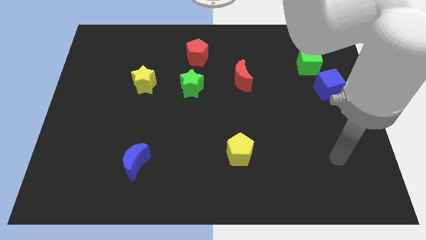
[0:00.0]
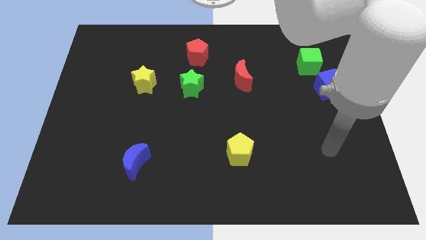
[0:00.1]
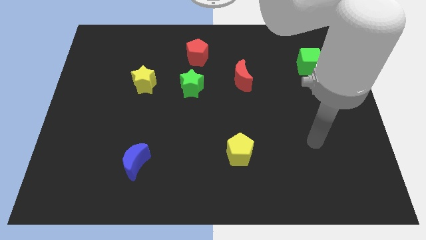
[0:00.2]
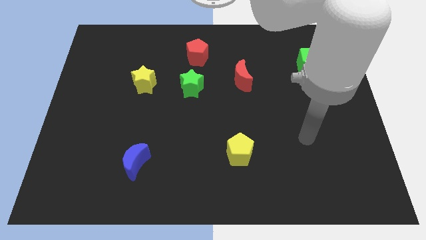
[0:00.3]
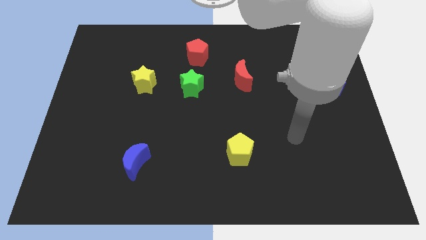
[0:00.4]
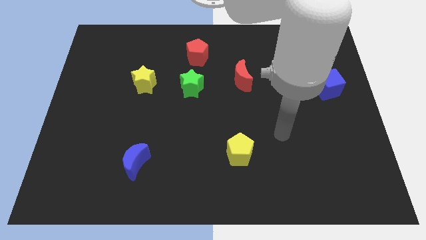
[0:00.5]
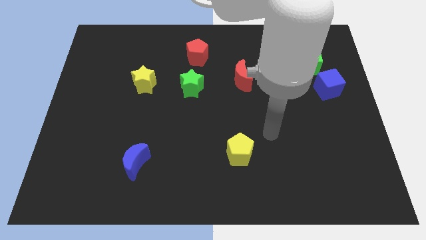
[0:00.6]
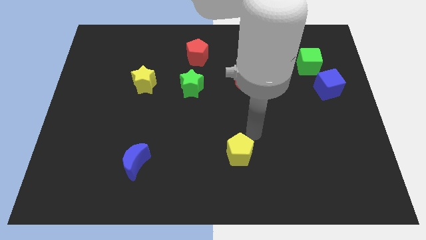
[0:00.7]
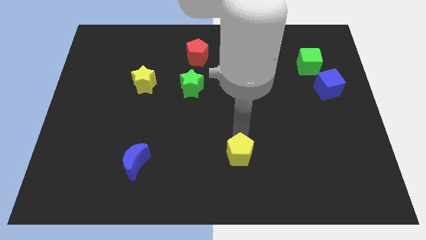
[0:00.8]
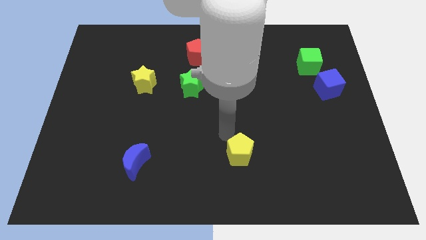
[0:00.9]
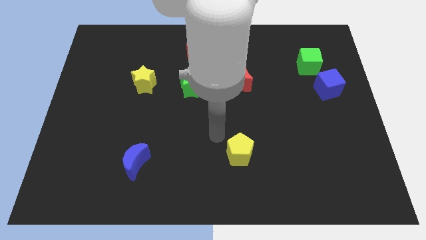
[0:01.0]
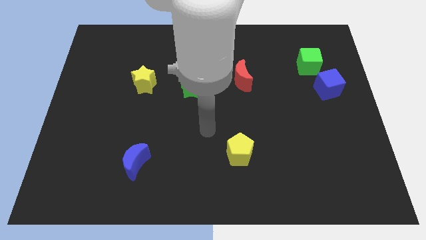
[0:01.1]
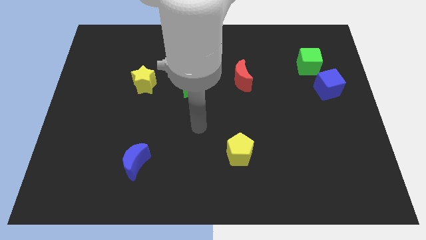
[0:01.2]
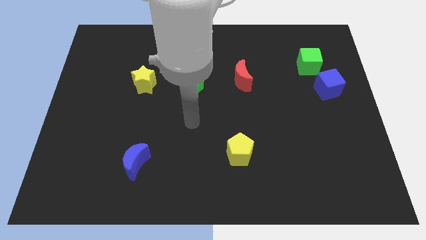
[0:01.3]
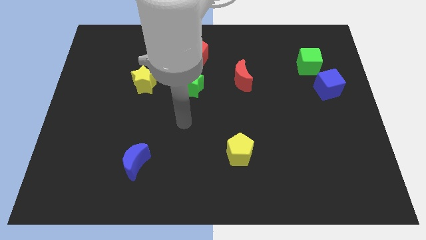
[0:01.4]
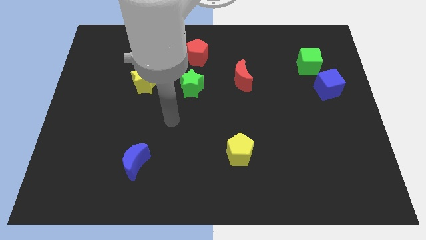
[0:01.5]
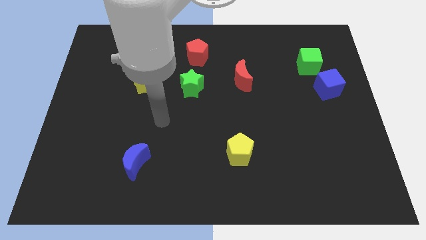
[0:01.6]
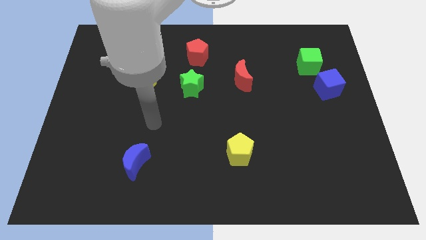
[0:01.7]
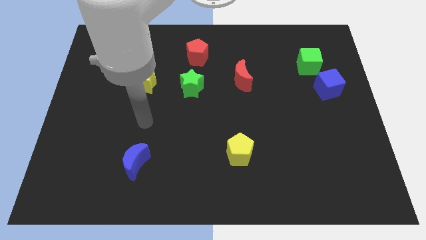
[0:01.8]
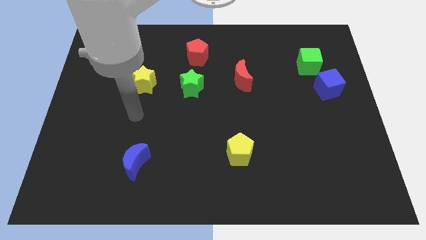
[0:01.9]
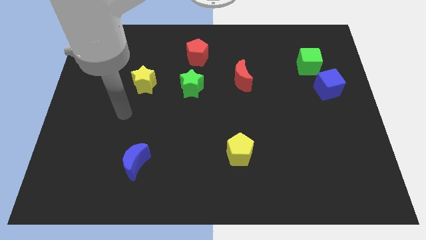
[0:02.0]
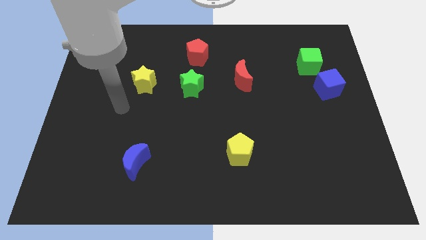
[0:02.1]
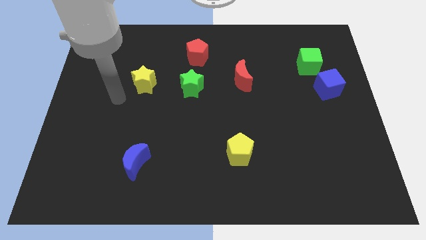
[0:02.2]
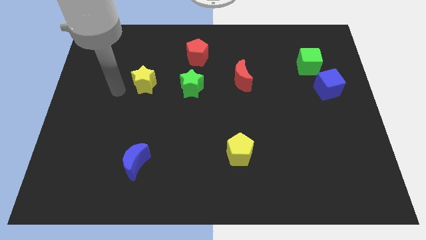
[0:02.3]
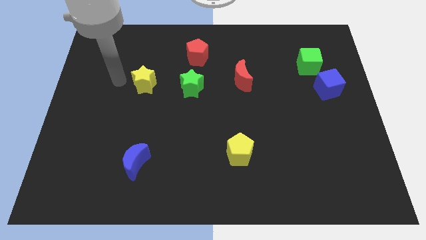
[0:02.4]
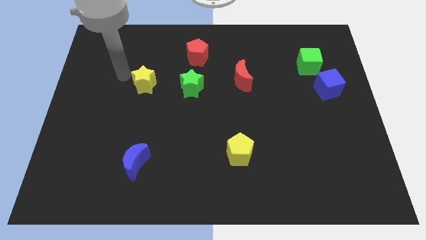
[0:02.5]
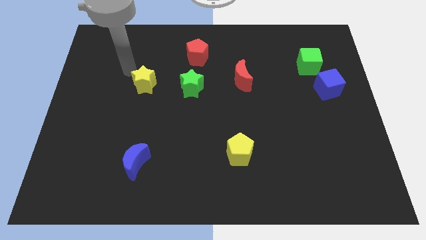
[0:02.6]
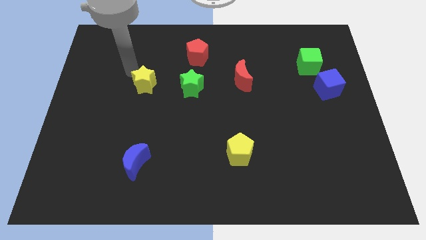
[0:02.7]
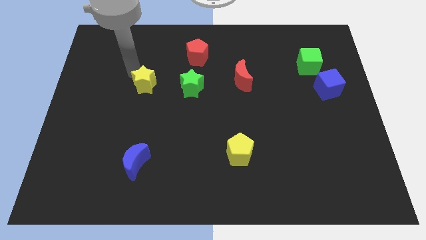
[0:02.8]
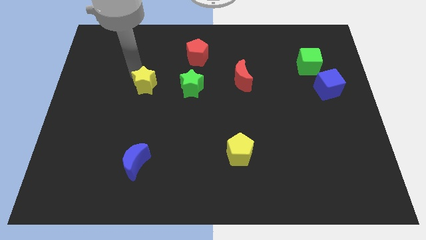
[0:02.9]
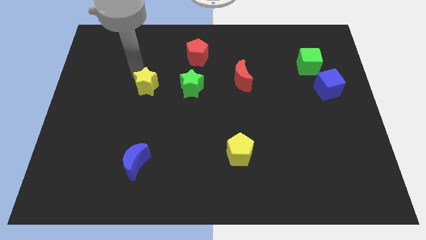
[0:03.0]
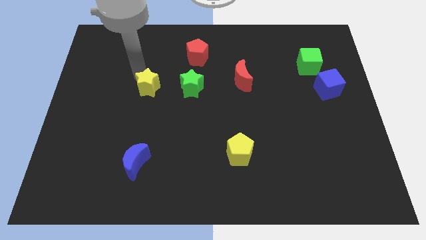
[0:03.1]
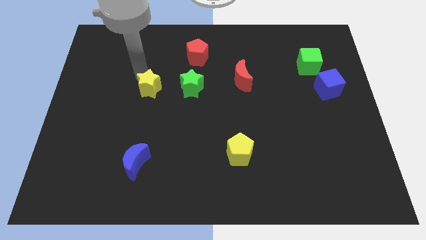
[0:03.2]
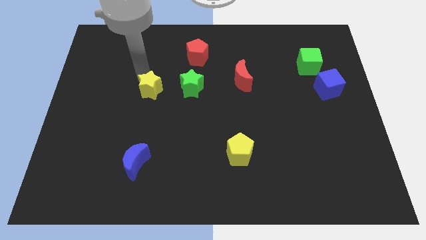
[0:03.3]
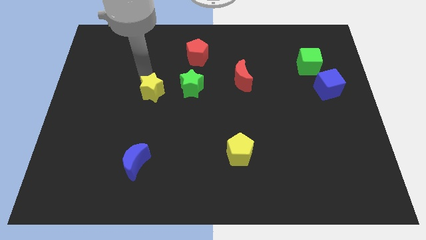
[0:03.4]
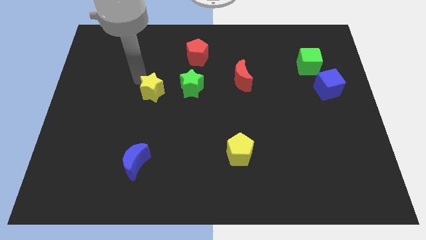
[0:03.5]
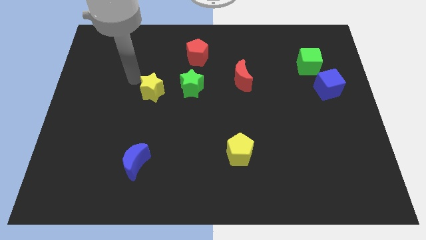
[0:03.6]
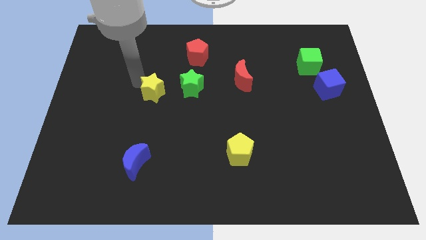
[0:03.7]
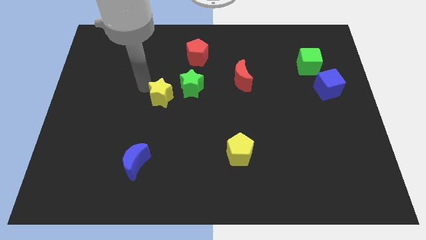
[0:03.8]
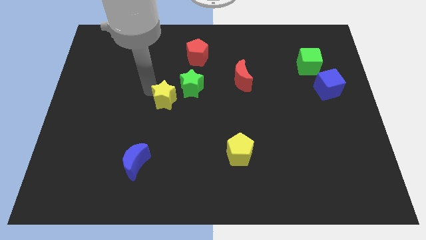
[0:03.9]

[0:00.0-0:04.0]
slightly slide the yellow star downwards and to the right

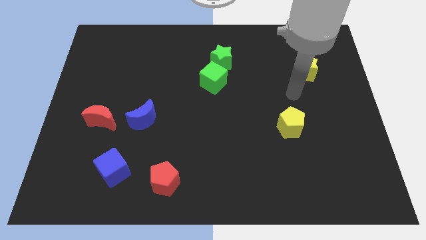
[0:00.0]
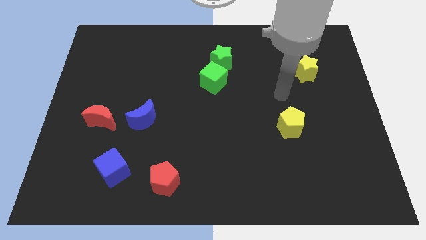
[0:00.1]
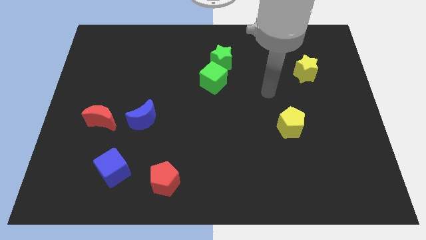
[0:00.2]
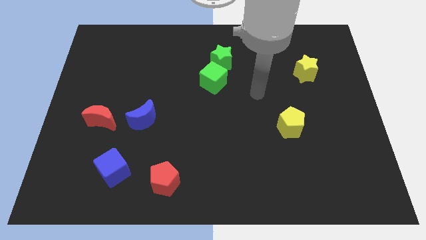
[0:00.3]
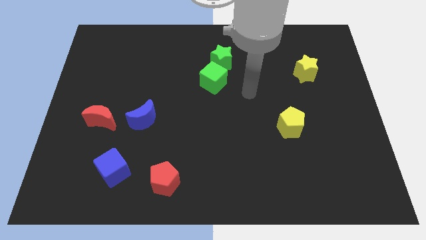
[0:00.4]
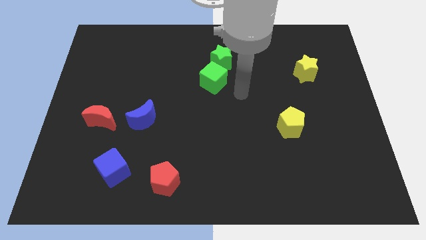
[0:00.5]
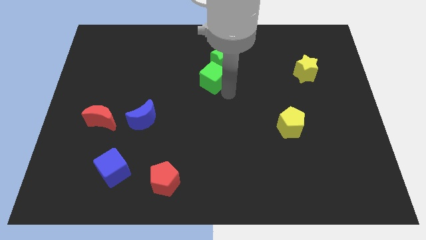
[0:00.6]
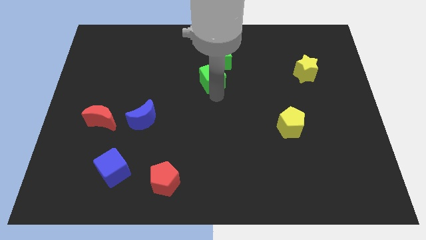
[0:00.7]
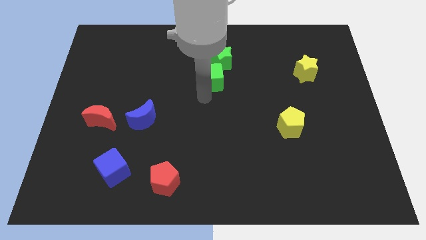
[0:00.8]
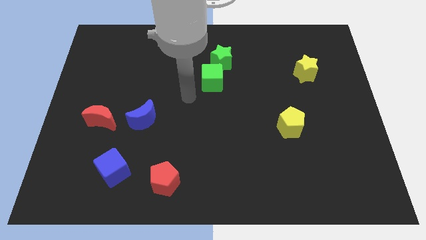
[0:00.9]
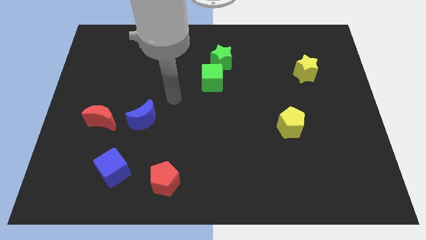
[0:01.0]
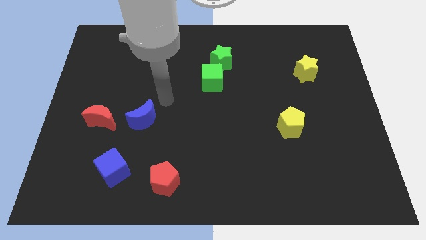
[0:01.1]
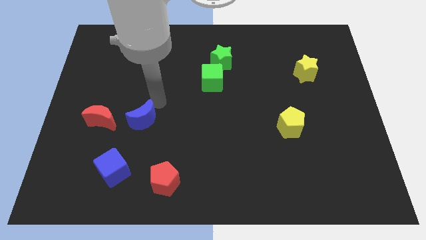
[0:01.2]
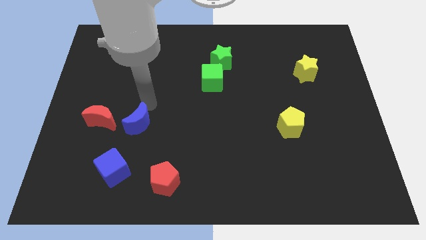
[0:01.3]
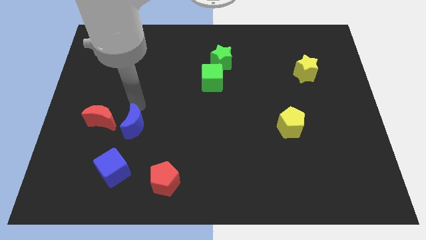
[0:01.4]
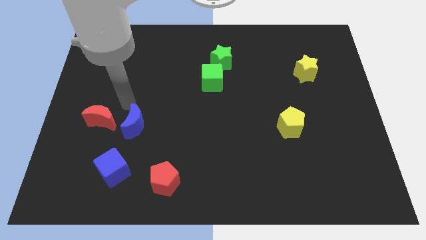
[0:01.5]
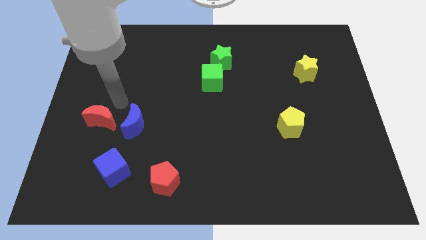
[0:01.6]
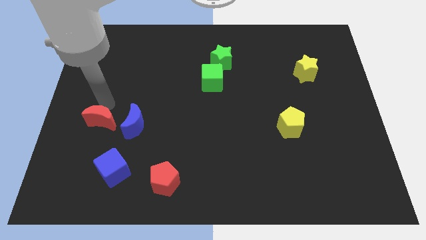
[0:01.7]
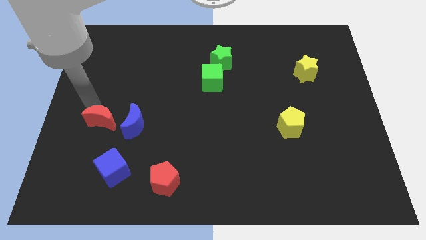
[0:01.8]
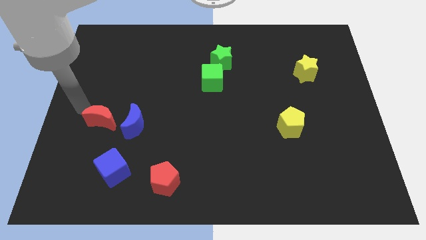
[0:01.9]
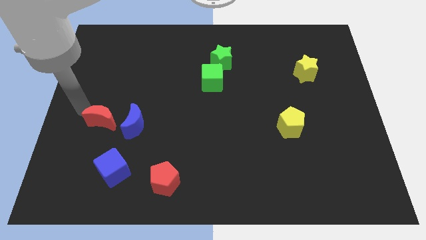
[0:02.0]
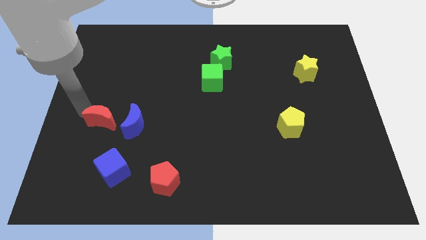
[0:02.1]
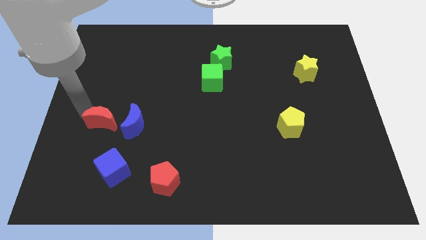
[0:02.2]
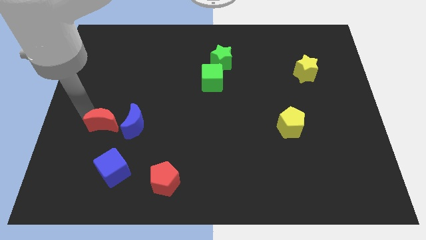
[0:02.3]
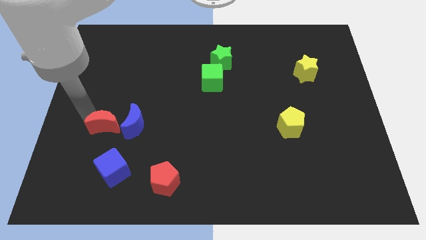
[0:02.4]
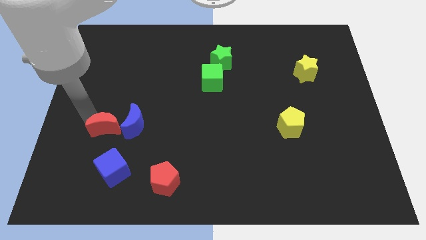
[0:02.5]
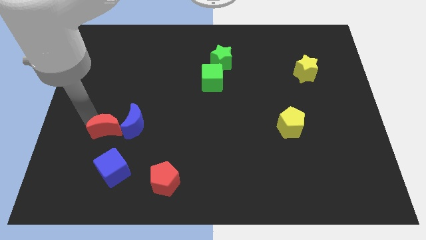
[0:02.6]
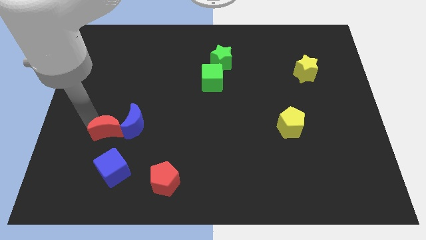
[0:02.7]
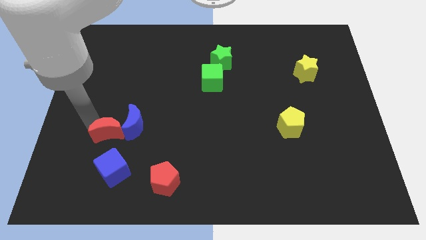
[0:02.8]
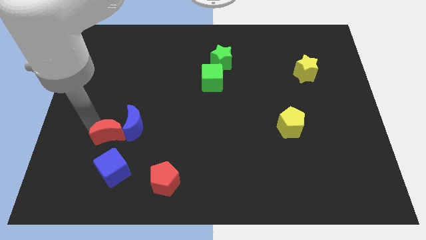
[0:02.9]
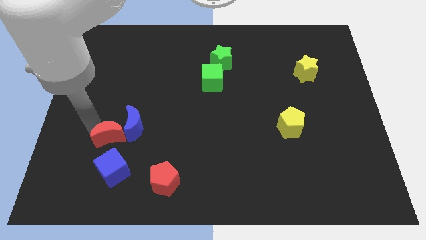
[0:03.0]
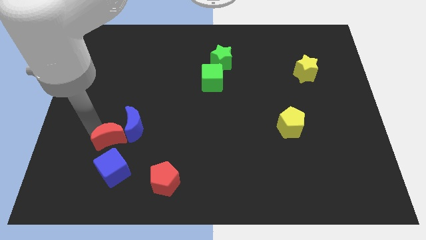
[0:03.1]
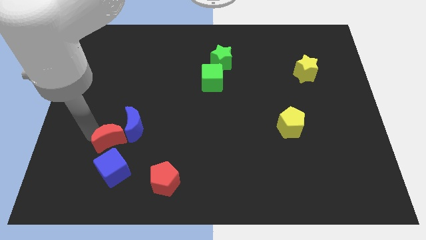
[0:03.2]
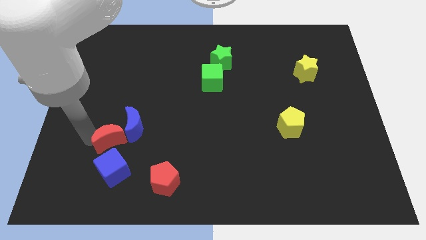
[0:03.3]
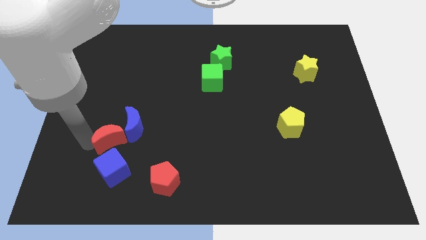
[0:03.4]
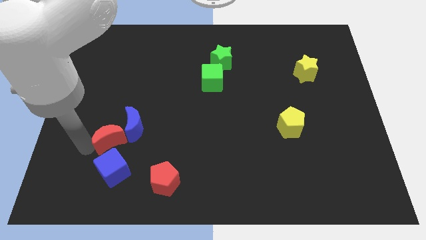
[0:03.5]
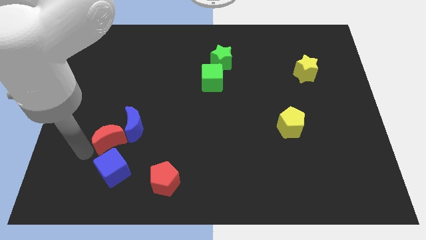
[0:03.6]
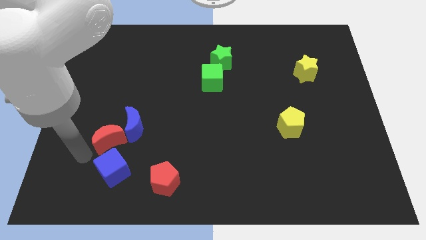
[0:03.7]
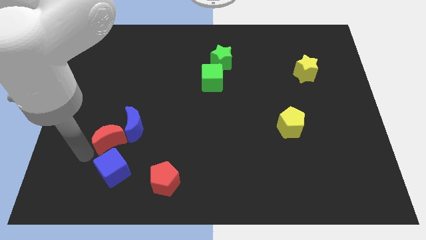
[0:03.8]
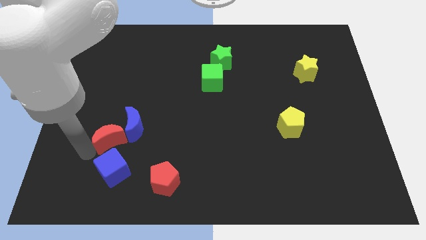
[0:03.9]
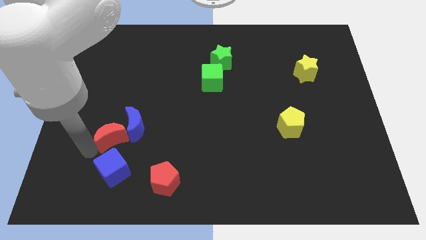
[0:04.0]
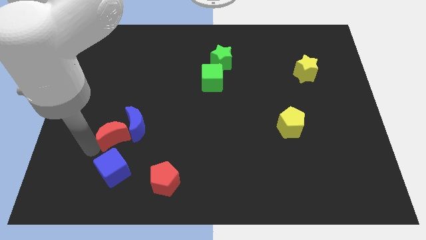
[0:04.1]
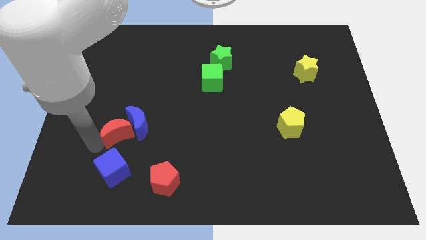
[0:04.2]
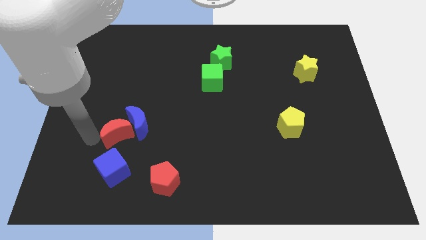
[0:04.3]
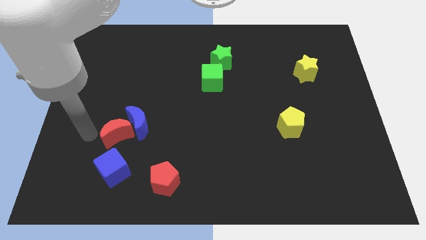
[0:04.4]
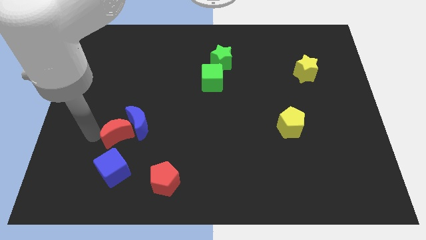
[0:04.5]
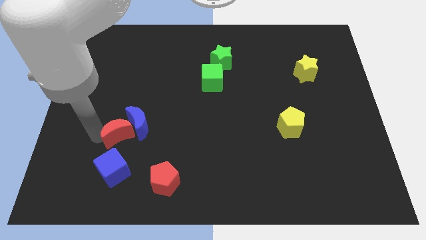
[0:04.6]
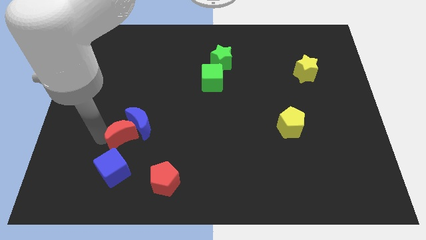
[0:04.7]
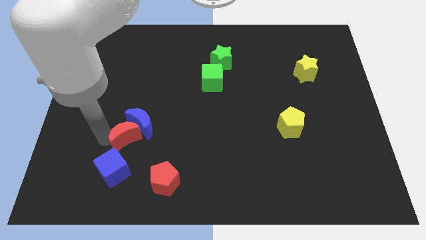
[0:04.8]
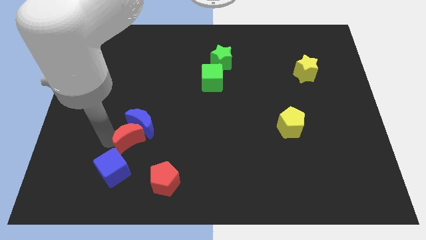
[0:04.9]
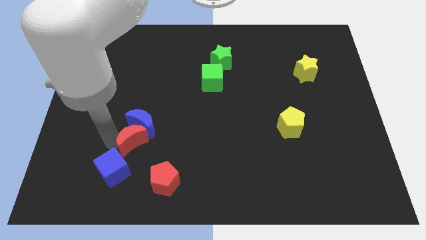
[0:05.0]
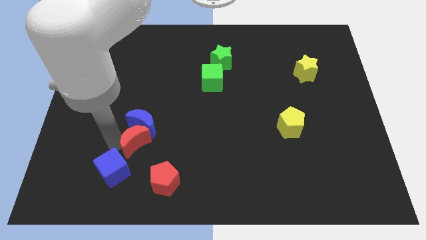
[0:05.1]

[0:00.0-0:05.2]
push the red moon a little right
